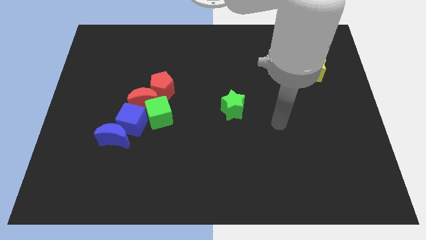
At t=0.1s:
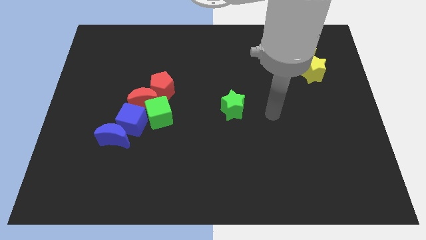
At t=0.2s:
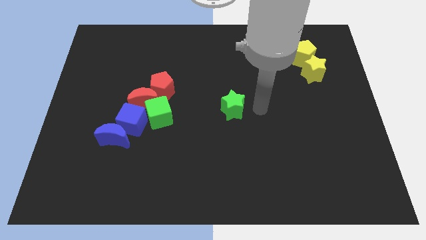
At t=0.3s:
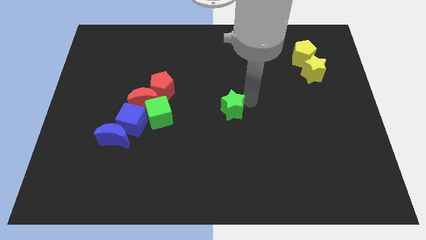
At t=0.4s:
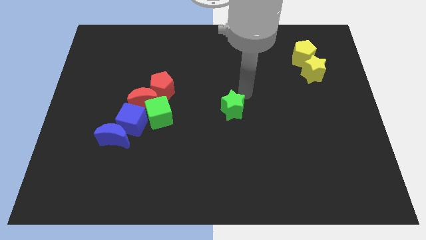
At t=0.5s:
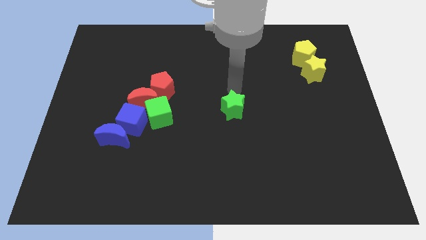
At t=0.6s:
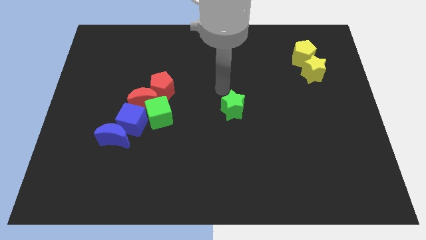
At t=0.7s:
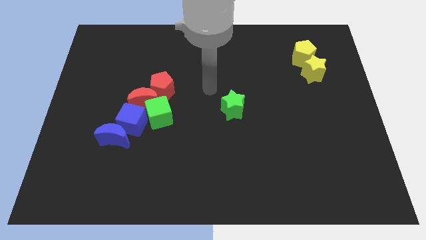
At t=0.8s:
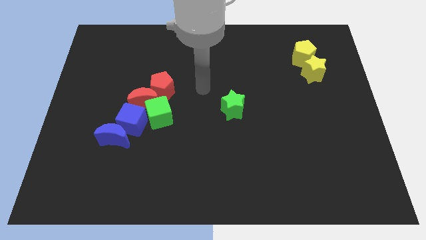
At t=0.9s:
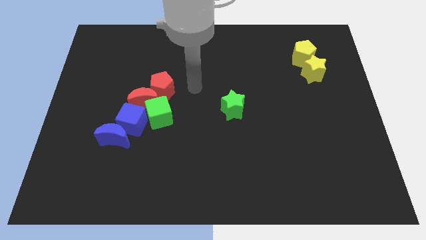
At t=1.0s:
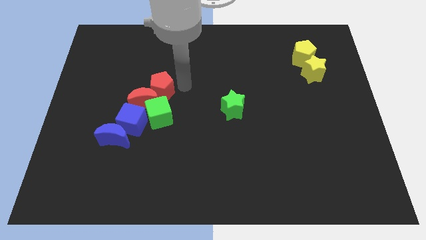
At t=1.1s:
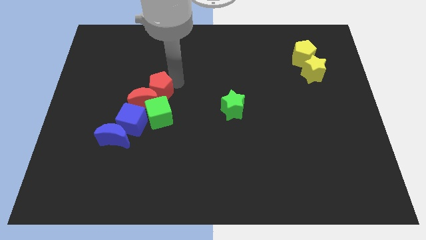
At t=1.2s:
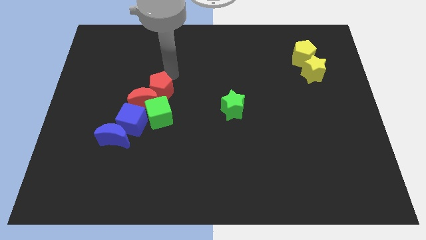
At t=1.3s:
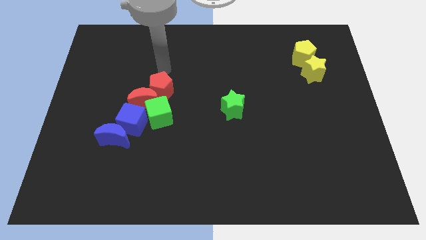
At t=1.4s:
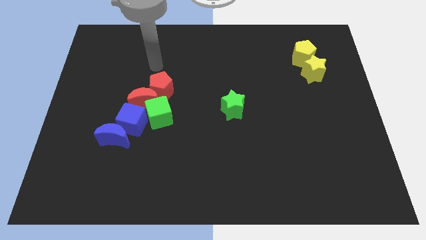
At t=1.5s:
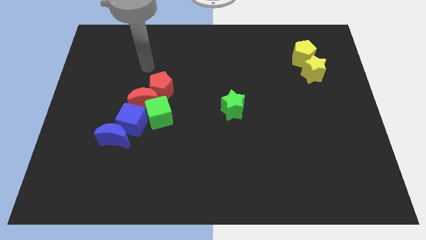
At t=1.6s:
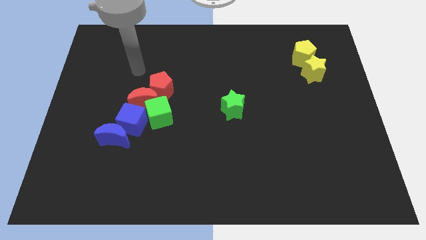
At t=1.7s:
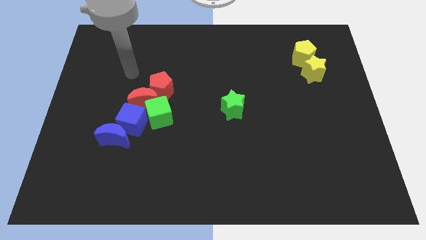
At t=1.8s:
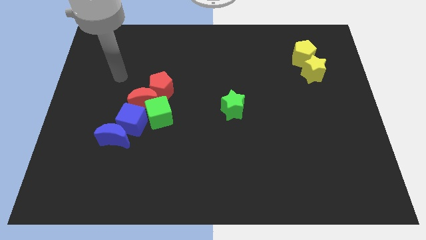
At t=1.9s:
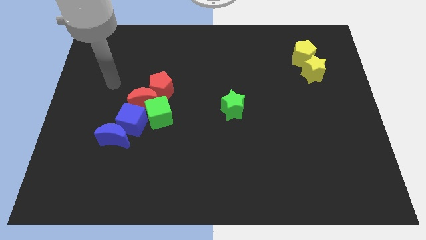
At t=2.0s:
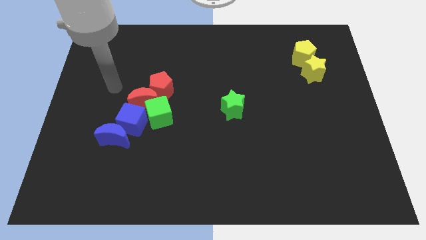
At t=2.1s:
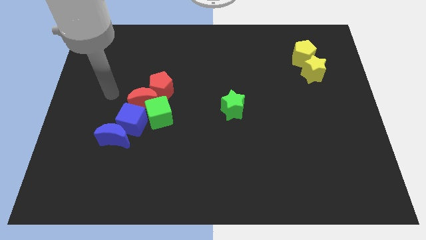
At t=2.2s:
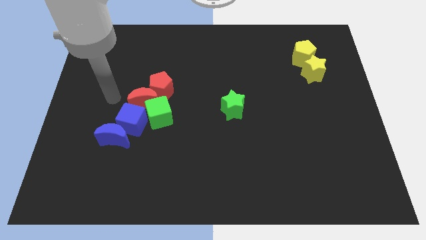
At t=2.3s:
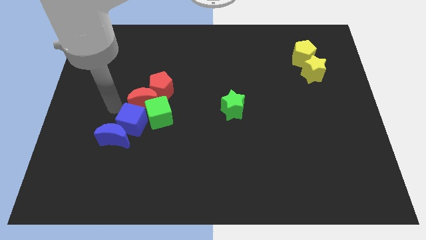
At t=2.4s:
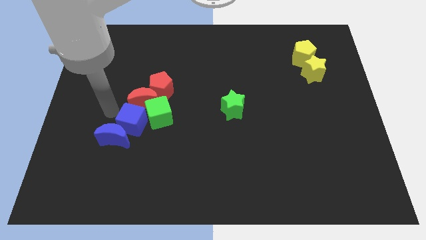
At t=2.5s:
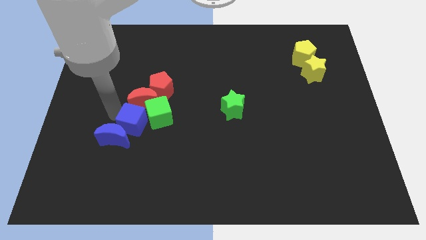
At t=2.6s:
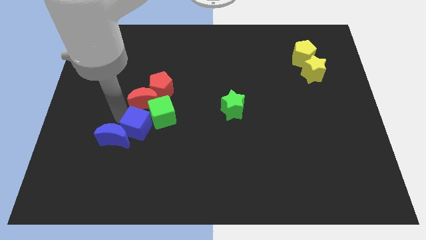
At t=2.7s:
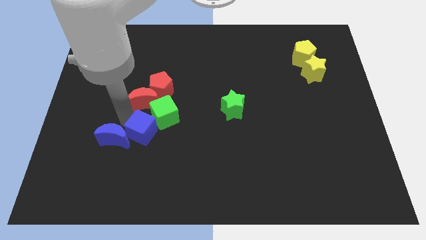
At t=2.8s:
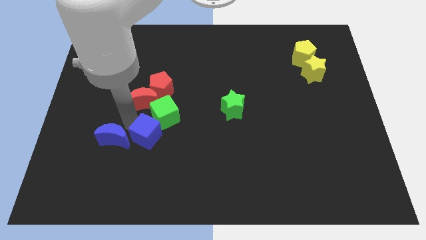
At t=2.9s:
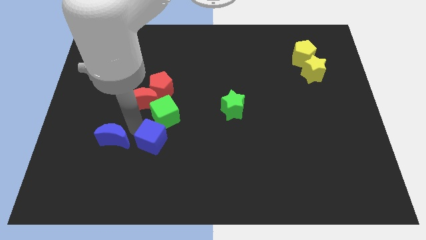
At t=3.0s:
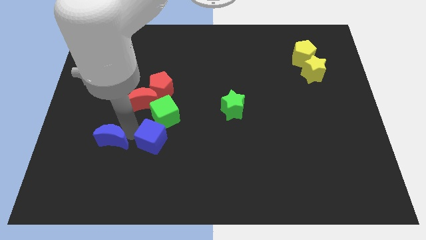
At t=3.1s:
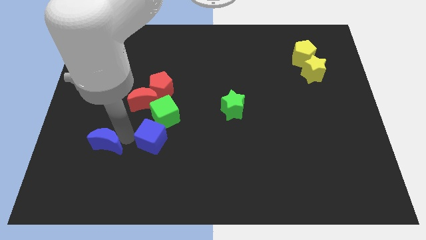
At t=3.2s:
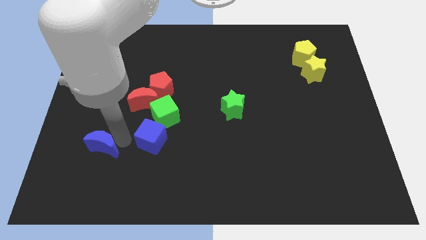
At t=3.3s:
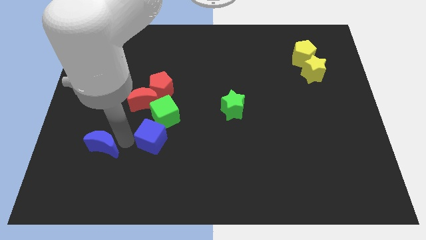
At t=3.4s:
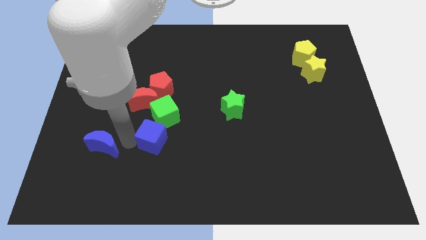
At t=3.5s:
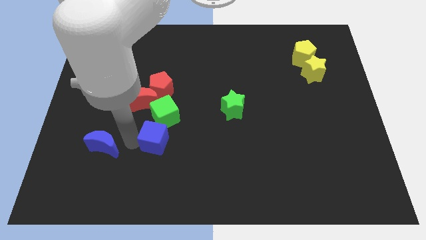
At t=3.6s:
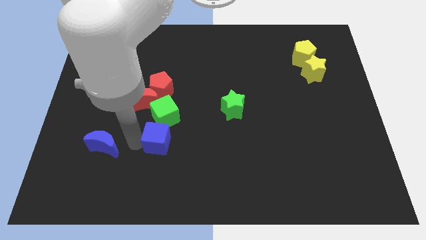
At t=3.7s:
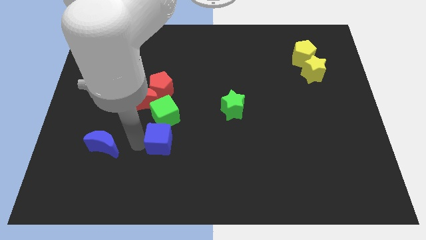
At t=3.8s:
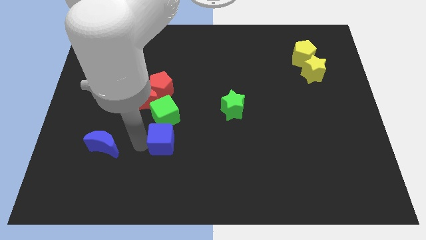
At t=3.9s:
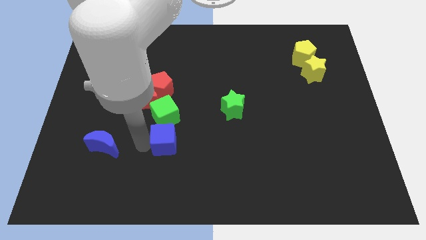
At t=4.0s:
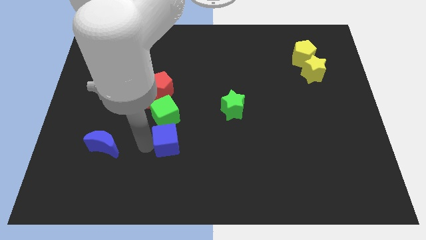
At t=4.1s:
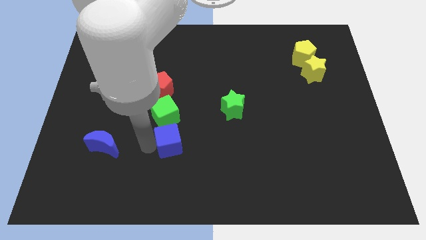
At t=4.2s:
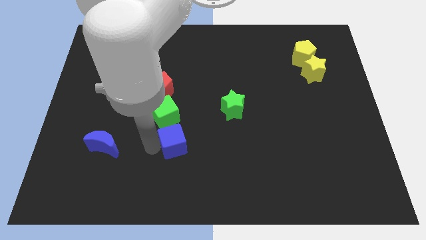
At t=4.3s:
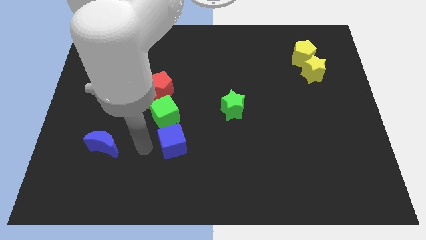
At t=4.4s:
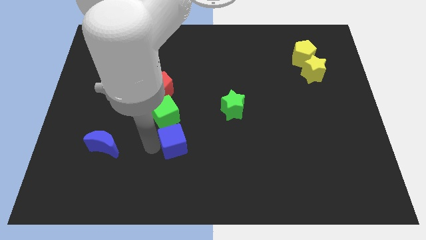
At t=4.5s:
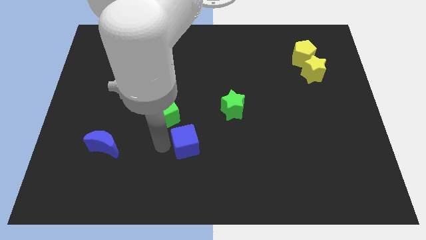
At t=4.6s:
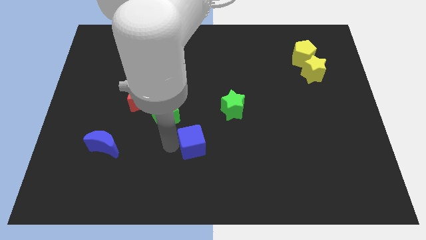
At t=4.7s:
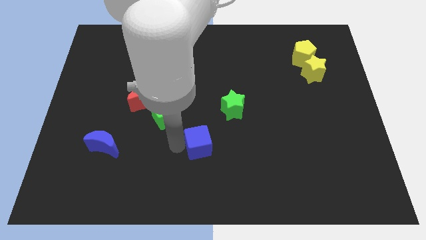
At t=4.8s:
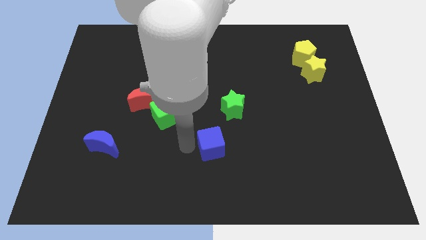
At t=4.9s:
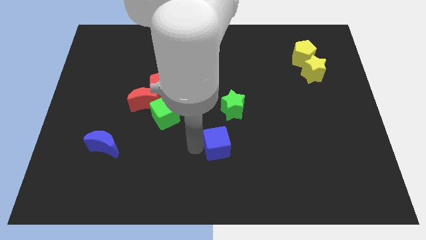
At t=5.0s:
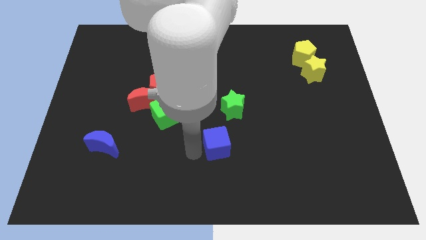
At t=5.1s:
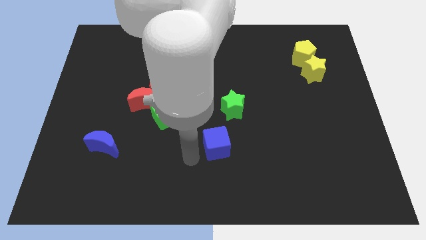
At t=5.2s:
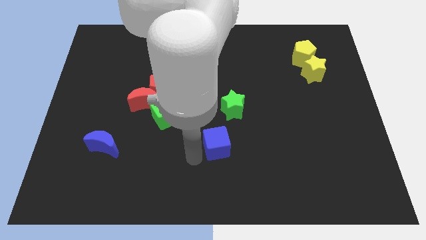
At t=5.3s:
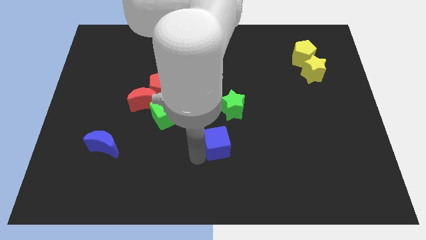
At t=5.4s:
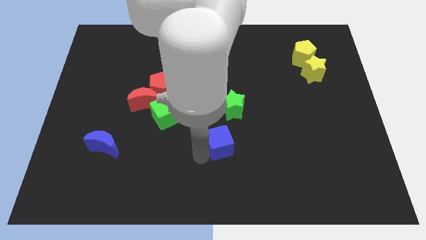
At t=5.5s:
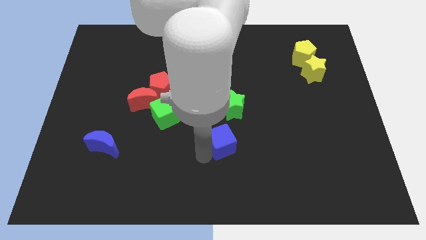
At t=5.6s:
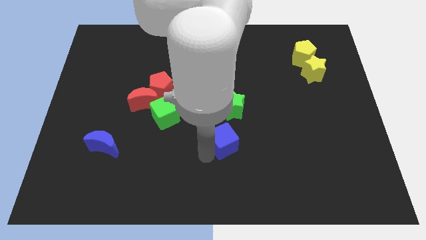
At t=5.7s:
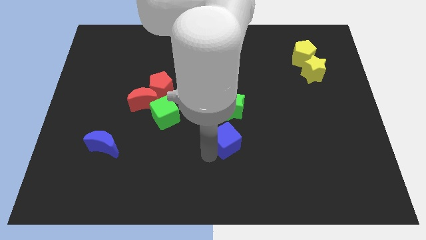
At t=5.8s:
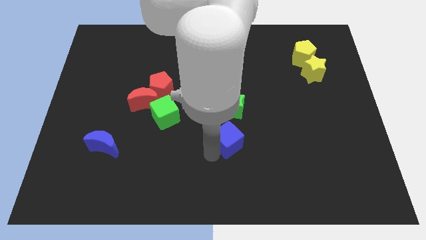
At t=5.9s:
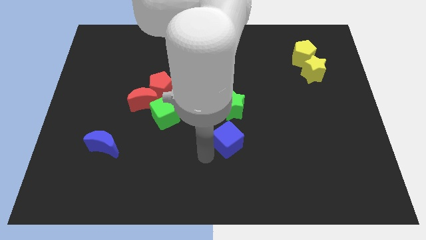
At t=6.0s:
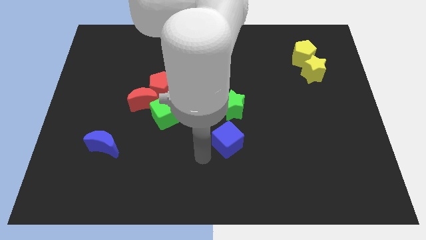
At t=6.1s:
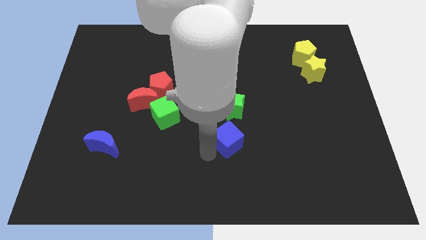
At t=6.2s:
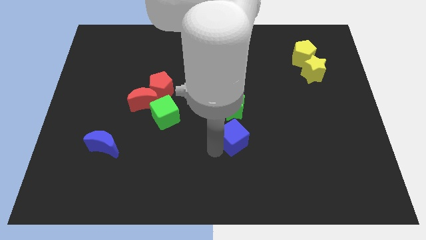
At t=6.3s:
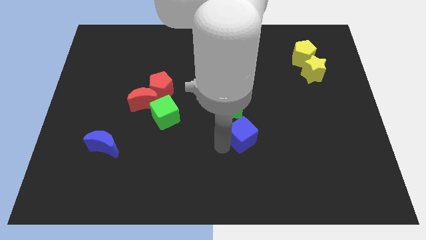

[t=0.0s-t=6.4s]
put the blue cube to the bottom right side of the green star

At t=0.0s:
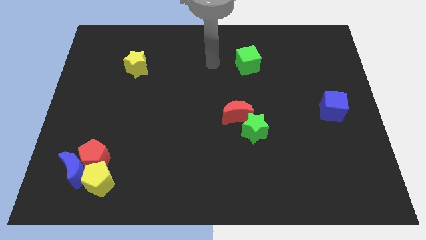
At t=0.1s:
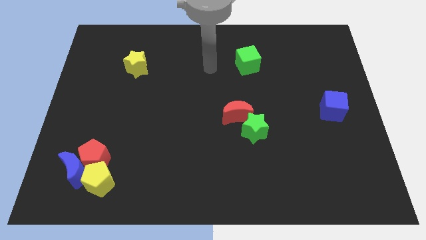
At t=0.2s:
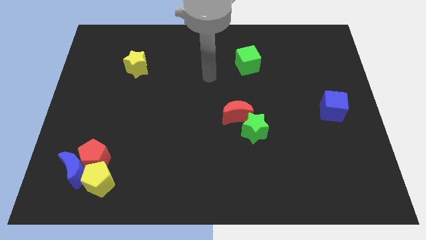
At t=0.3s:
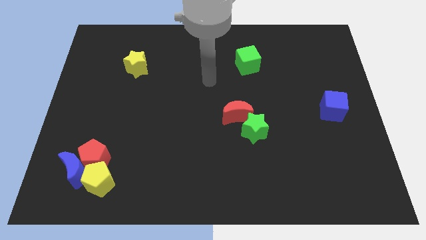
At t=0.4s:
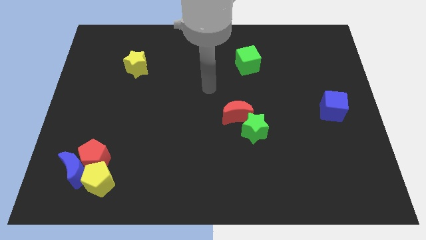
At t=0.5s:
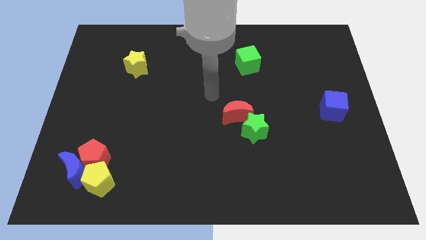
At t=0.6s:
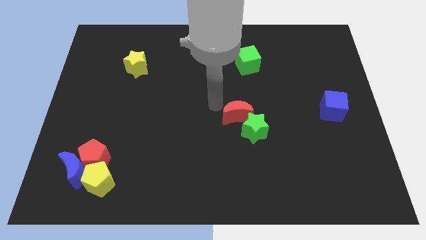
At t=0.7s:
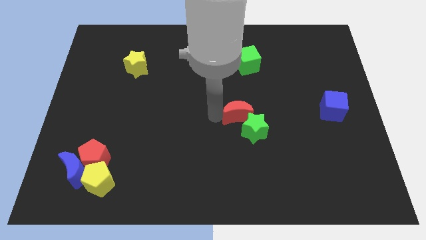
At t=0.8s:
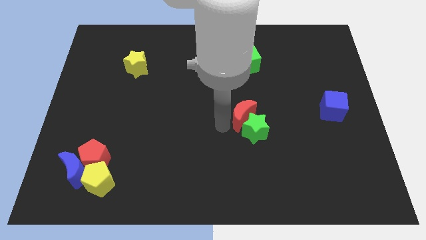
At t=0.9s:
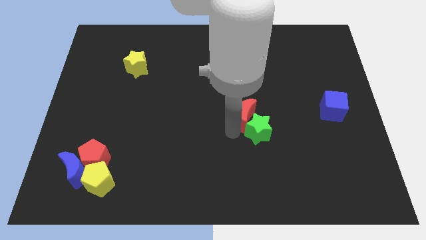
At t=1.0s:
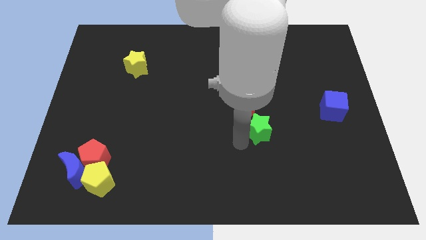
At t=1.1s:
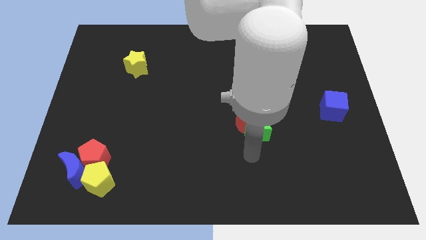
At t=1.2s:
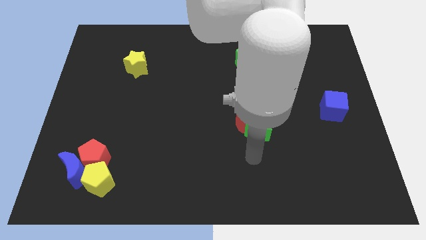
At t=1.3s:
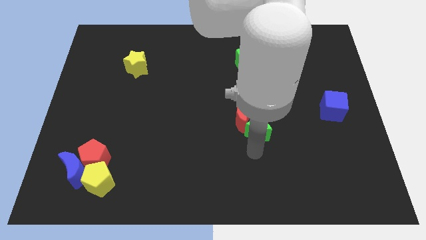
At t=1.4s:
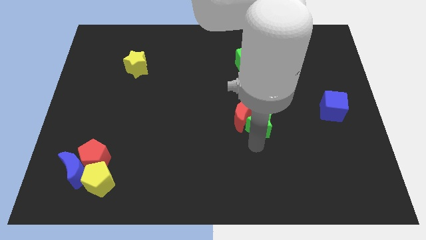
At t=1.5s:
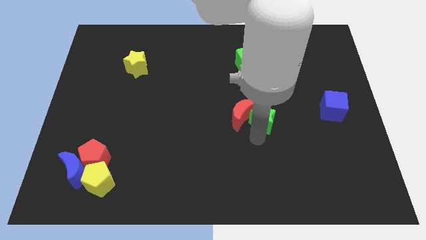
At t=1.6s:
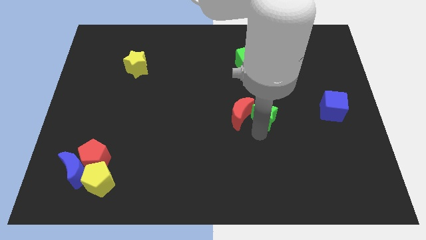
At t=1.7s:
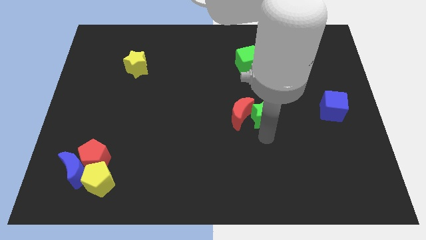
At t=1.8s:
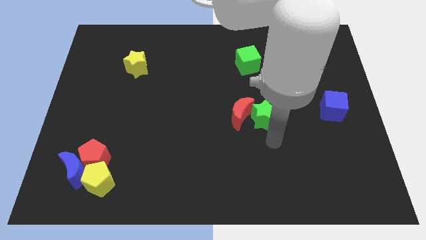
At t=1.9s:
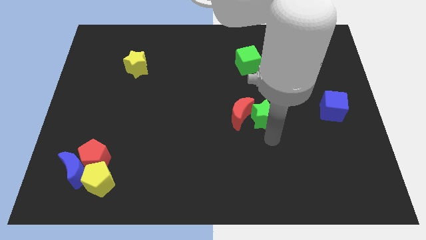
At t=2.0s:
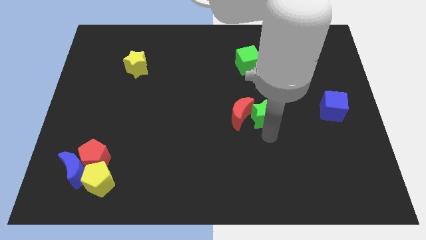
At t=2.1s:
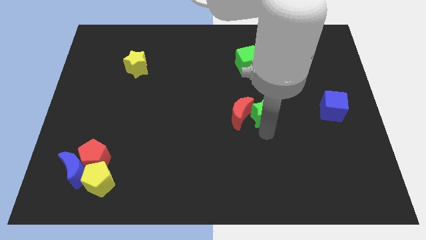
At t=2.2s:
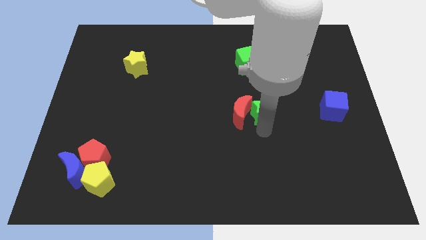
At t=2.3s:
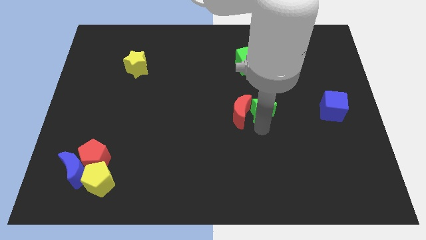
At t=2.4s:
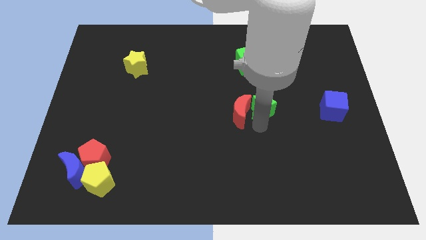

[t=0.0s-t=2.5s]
slide the green star below the green cube
